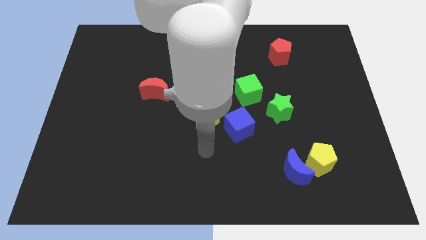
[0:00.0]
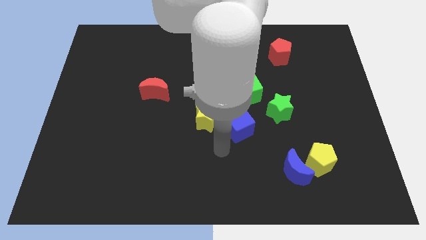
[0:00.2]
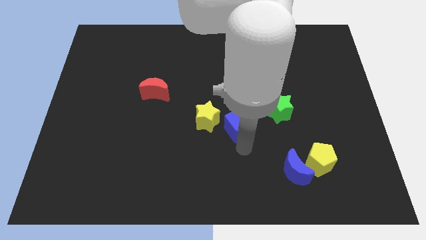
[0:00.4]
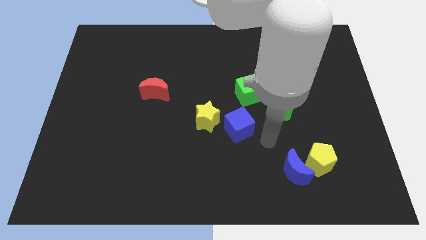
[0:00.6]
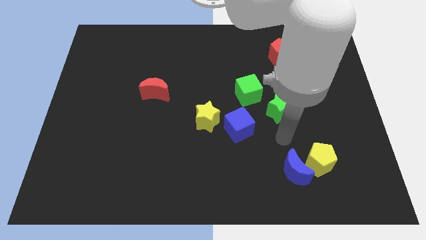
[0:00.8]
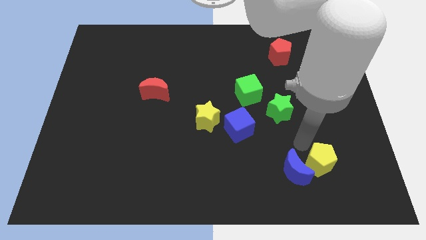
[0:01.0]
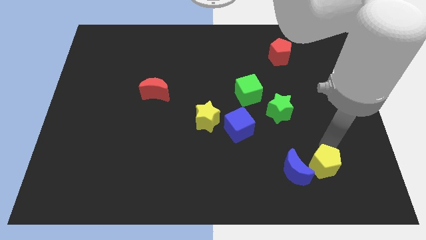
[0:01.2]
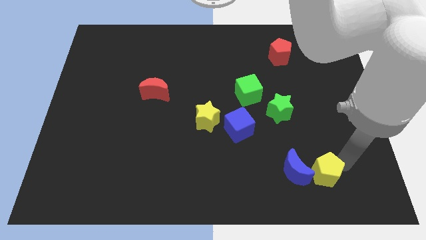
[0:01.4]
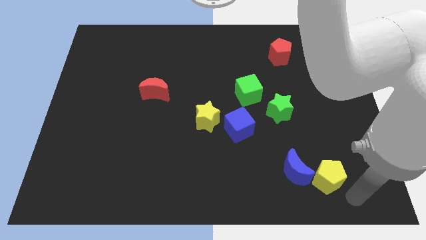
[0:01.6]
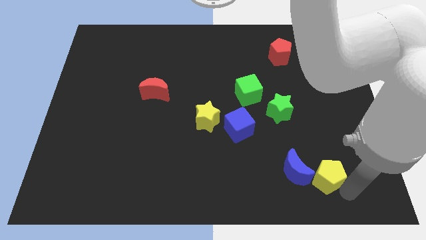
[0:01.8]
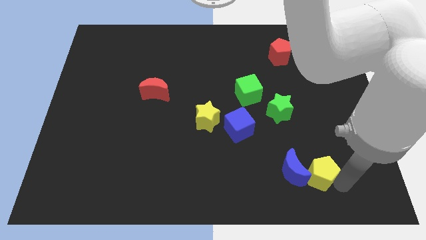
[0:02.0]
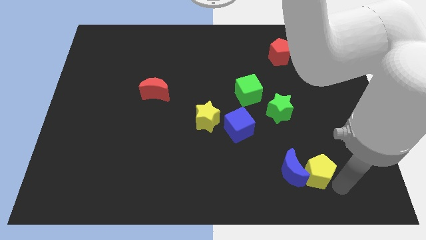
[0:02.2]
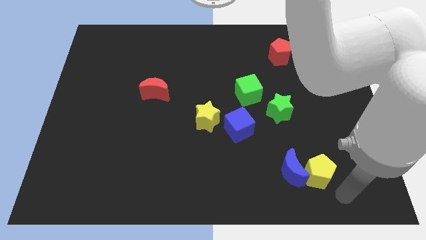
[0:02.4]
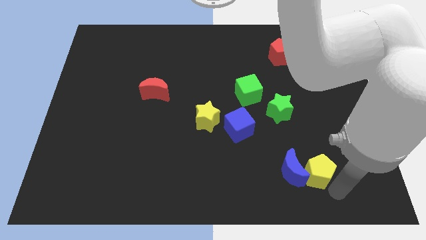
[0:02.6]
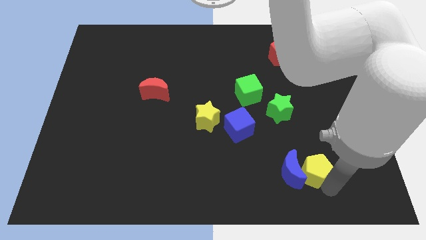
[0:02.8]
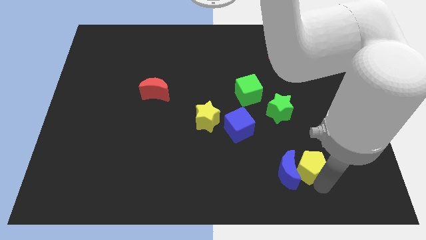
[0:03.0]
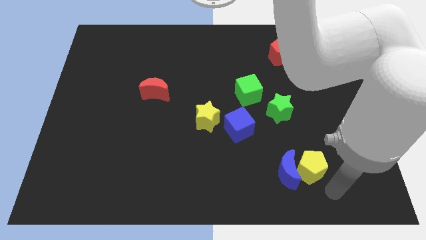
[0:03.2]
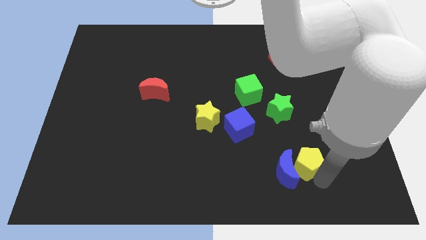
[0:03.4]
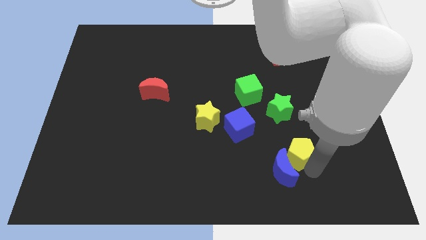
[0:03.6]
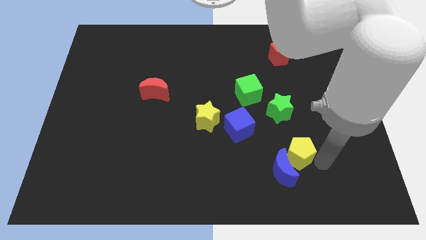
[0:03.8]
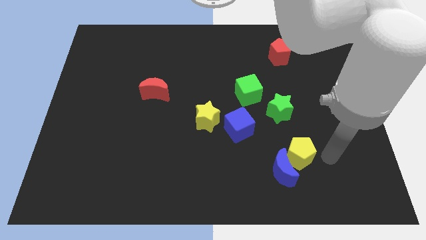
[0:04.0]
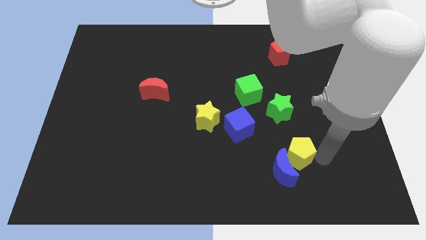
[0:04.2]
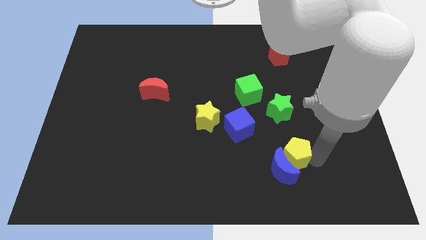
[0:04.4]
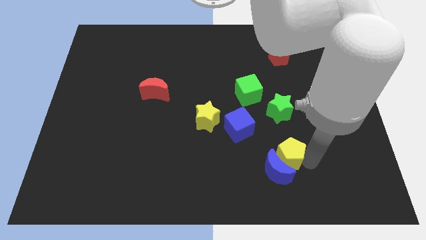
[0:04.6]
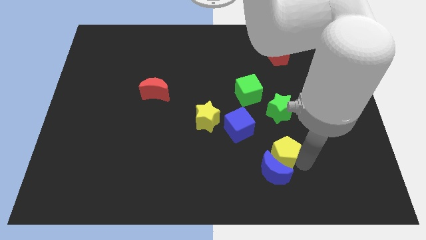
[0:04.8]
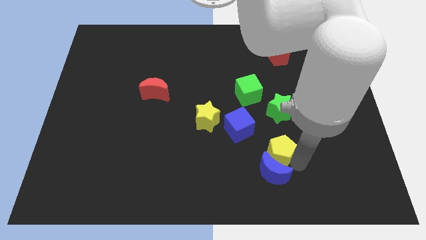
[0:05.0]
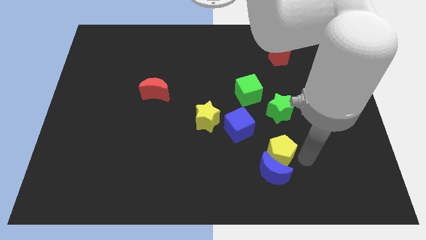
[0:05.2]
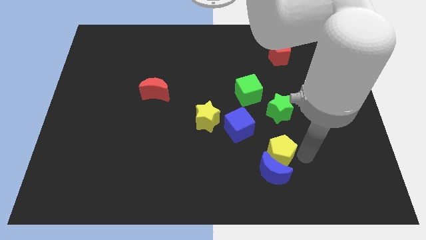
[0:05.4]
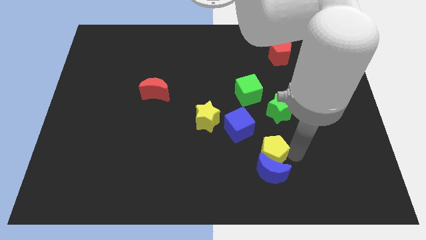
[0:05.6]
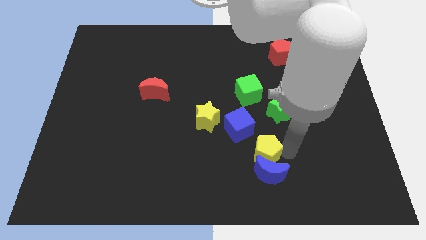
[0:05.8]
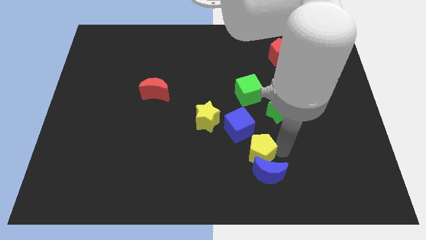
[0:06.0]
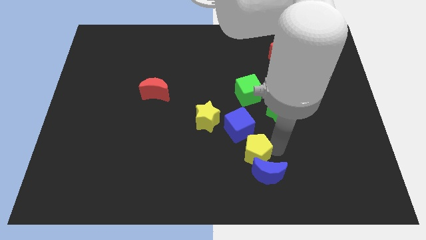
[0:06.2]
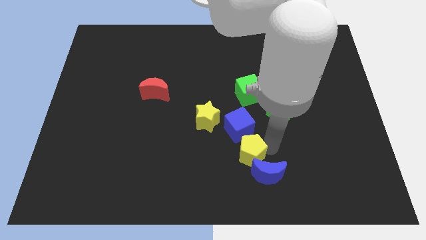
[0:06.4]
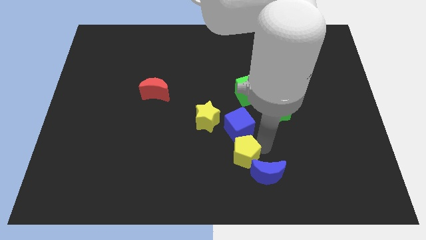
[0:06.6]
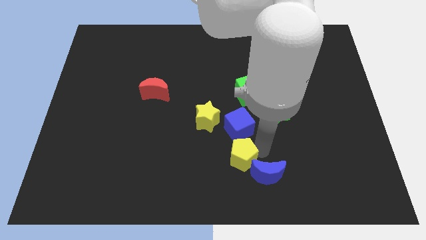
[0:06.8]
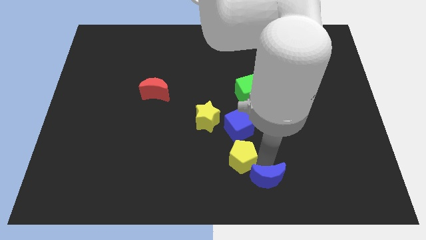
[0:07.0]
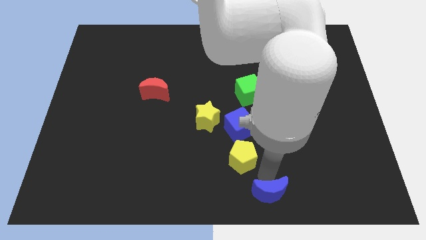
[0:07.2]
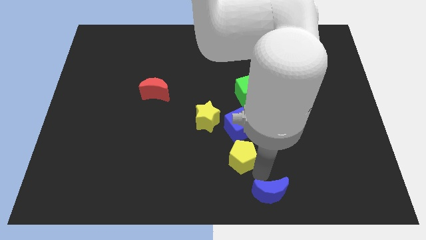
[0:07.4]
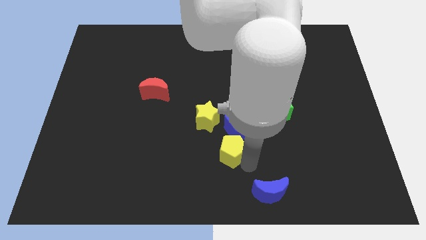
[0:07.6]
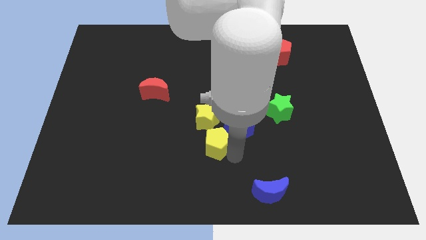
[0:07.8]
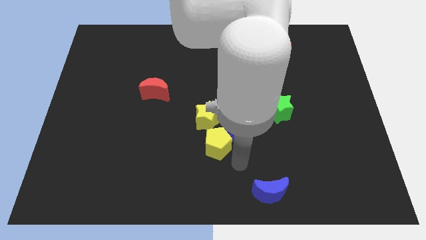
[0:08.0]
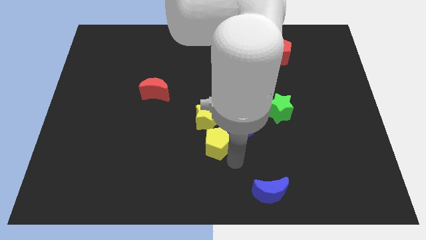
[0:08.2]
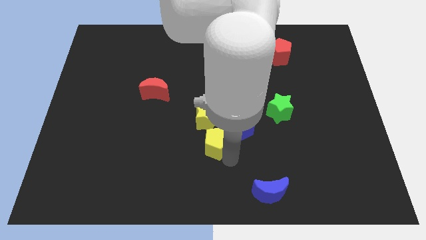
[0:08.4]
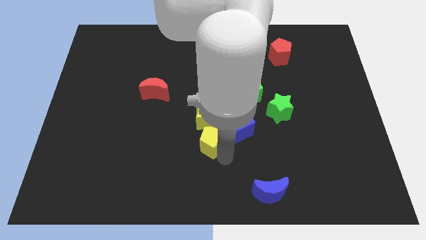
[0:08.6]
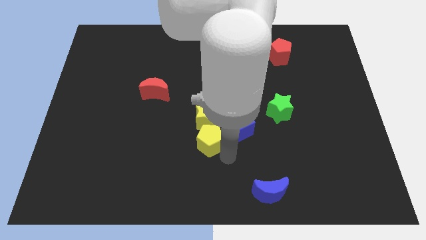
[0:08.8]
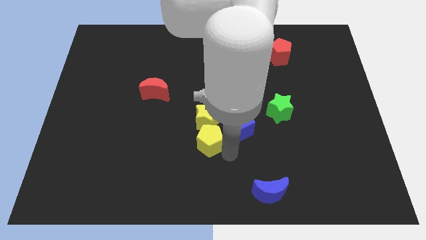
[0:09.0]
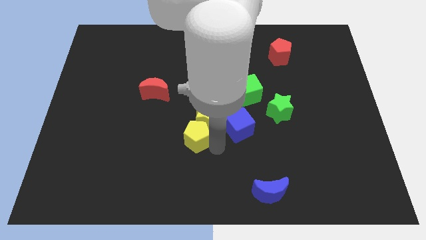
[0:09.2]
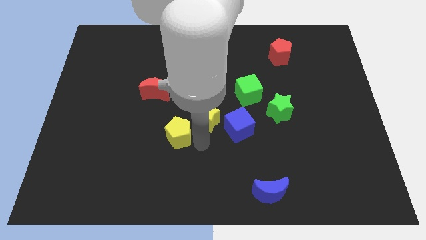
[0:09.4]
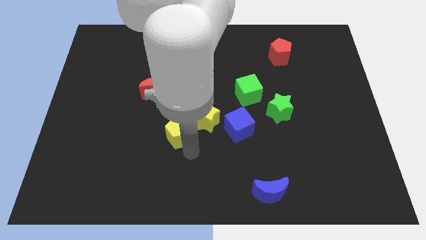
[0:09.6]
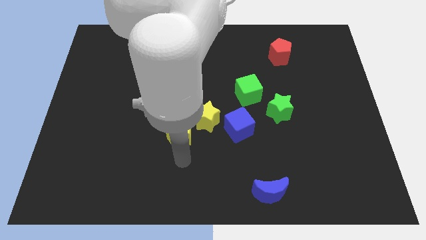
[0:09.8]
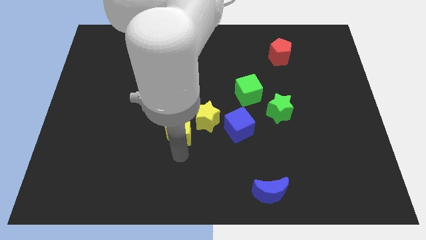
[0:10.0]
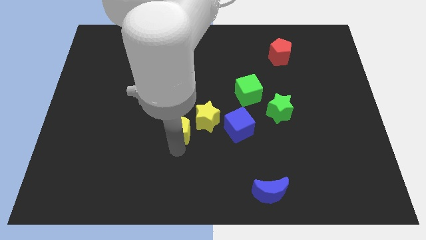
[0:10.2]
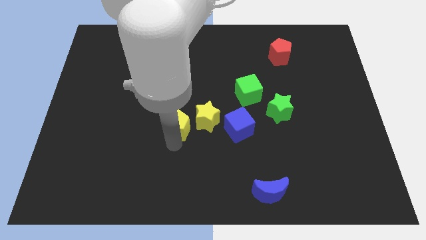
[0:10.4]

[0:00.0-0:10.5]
move the yellow pentagon diagonally down and to the right of the red moon

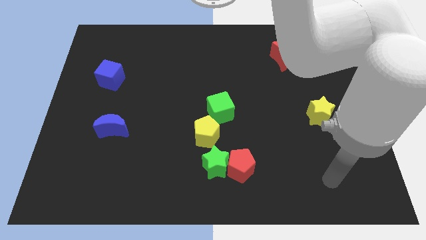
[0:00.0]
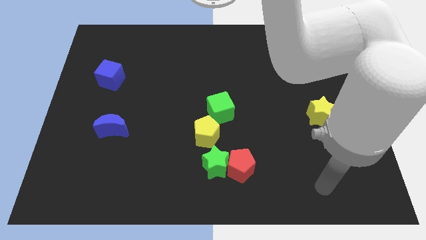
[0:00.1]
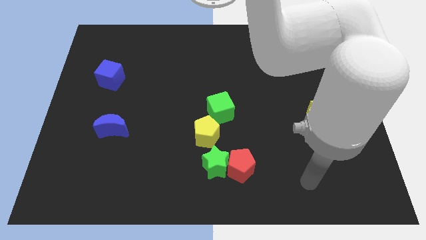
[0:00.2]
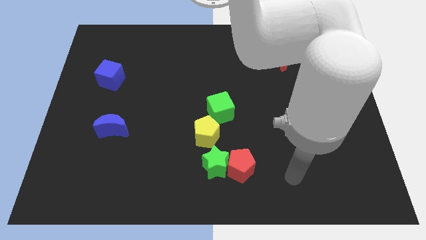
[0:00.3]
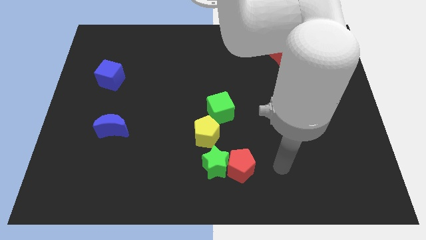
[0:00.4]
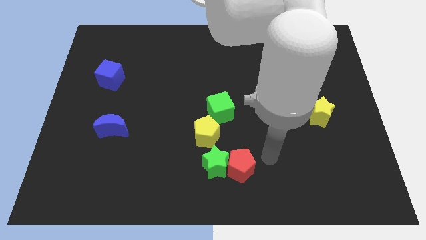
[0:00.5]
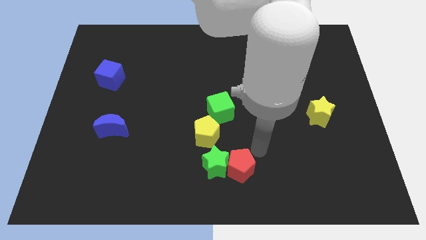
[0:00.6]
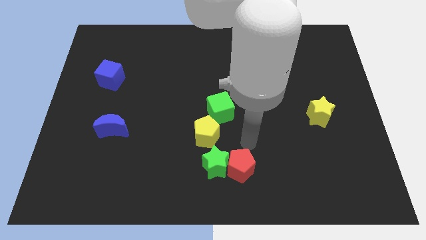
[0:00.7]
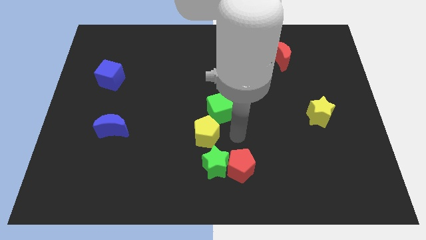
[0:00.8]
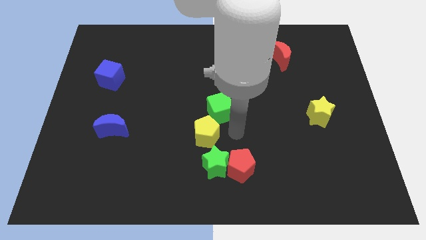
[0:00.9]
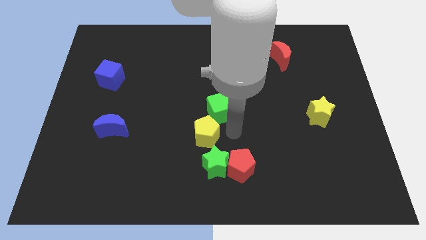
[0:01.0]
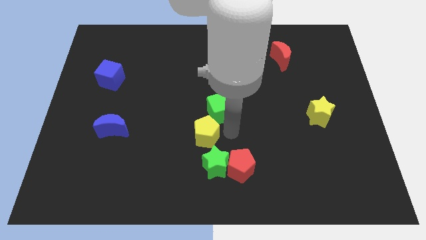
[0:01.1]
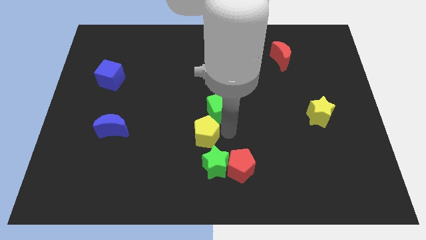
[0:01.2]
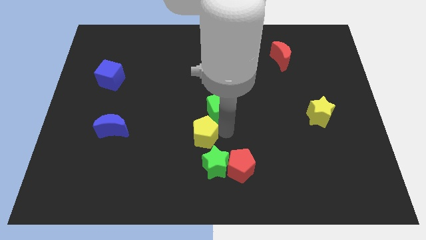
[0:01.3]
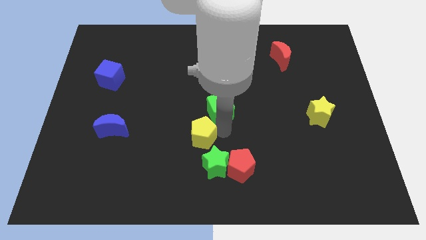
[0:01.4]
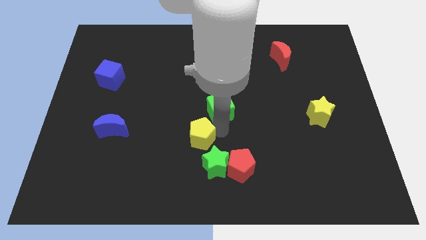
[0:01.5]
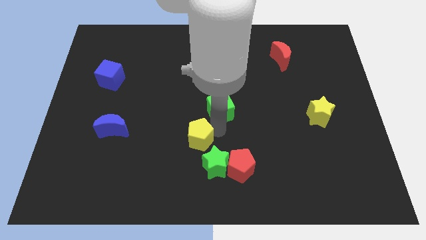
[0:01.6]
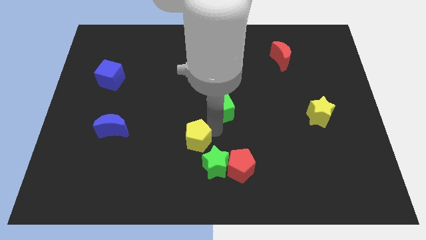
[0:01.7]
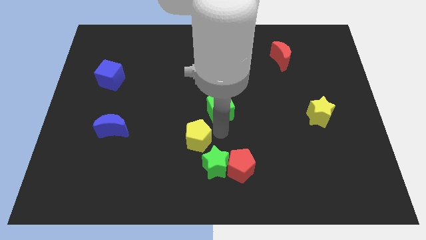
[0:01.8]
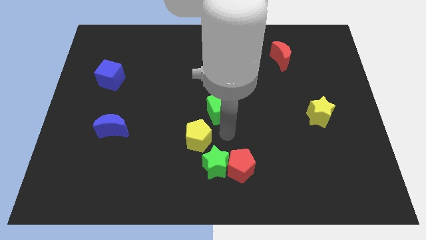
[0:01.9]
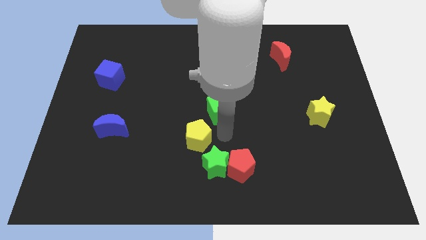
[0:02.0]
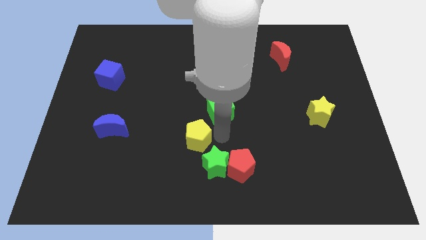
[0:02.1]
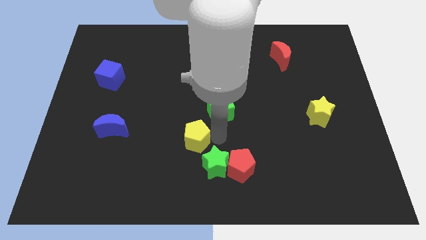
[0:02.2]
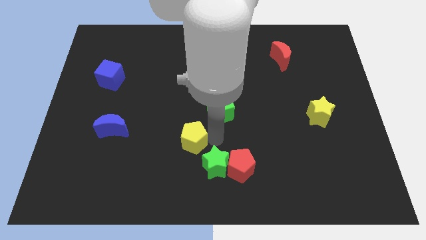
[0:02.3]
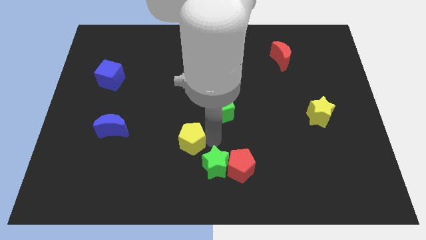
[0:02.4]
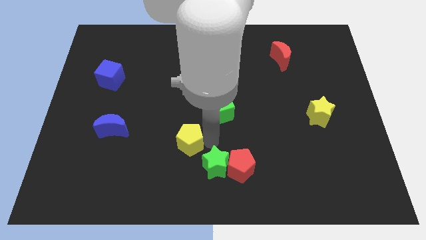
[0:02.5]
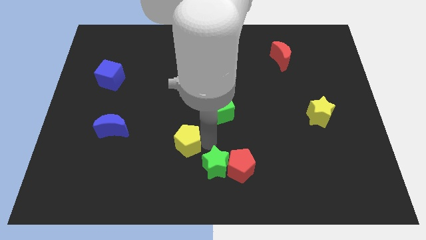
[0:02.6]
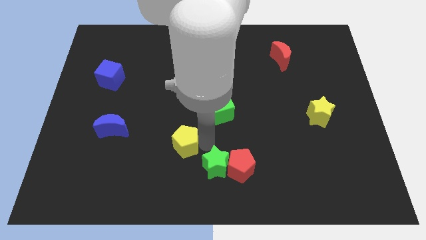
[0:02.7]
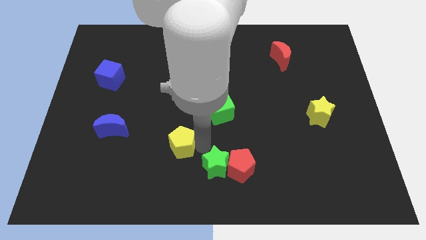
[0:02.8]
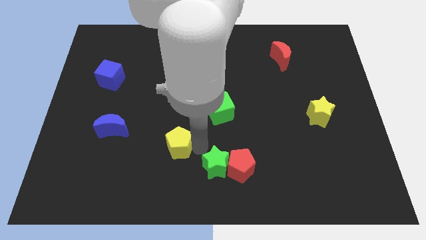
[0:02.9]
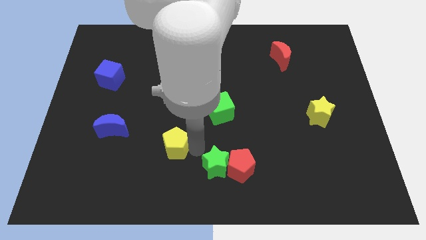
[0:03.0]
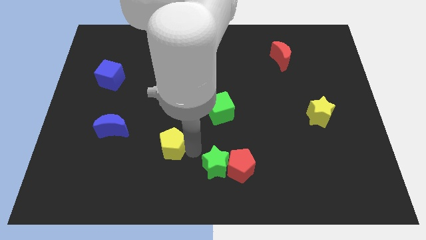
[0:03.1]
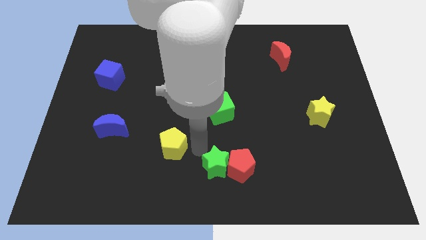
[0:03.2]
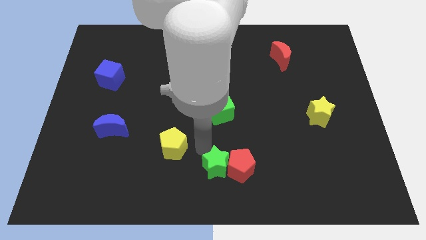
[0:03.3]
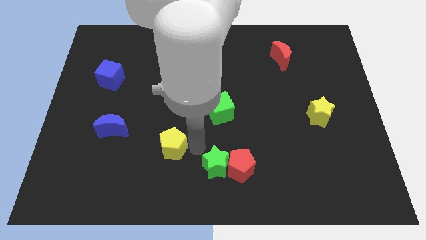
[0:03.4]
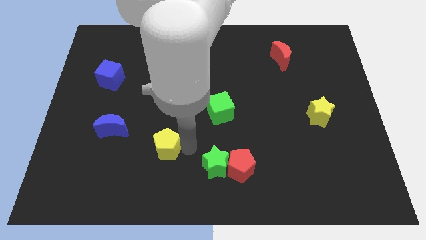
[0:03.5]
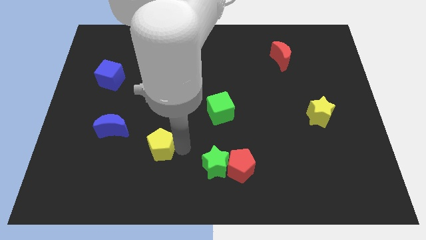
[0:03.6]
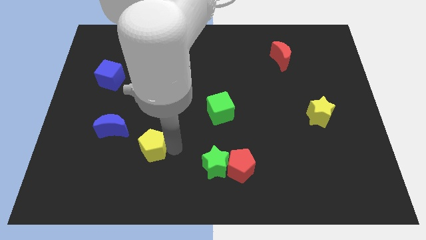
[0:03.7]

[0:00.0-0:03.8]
push the yellow pentagon to the bottom right of the blue moon
